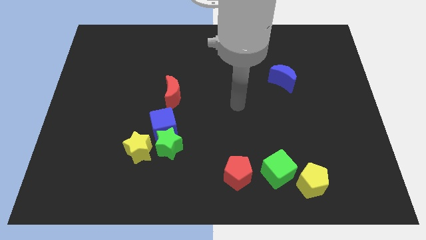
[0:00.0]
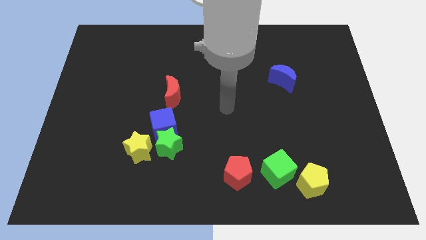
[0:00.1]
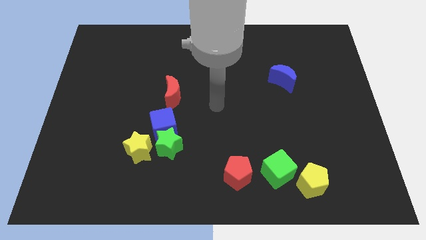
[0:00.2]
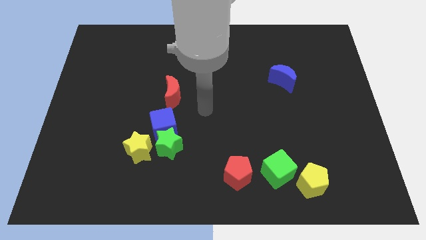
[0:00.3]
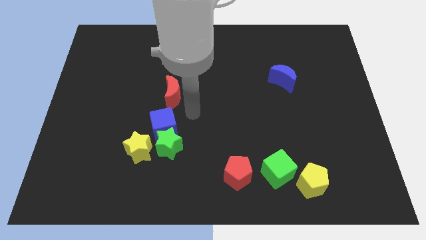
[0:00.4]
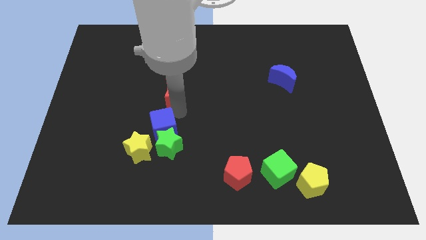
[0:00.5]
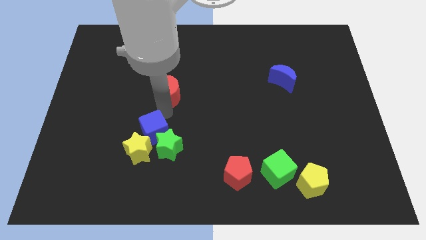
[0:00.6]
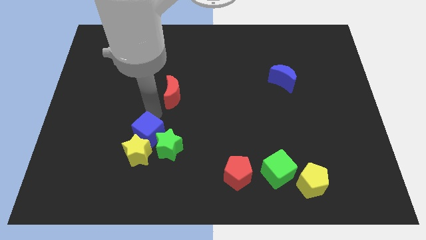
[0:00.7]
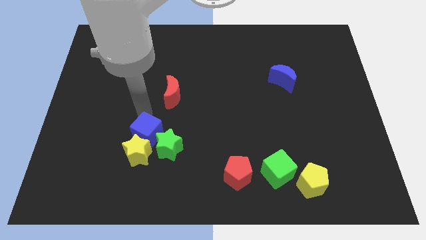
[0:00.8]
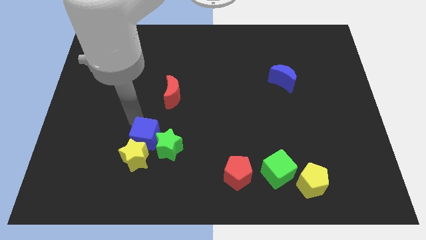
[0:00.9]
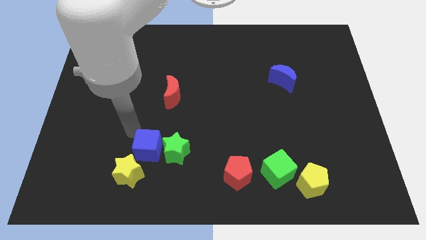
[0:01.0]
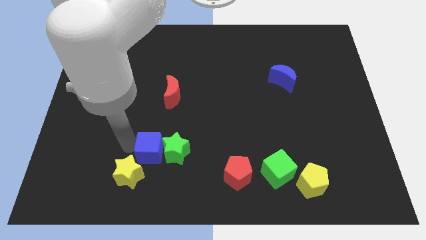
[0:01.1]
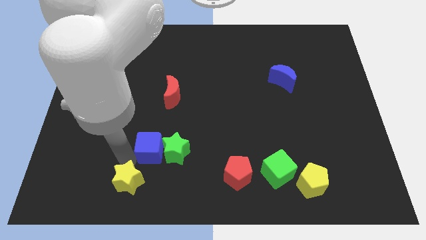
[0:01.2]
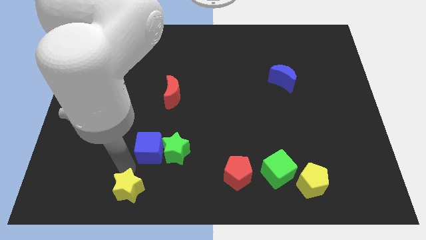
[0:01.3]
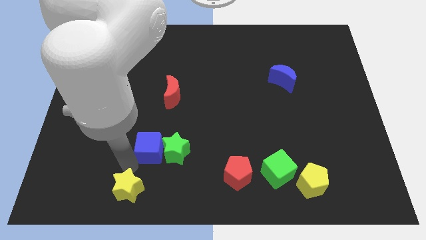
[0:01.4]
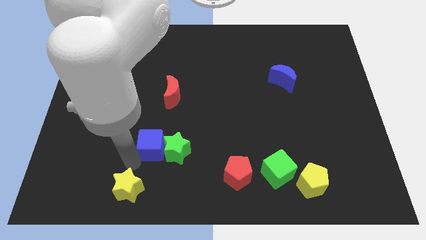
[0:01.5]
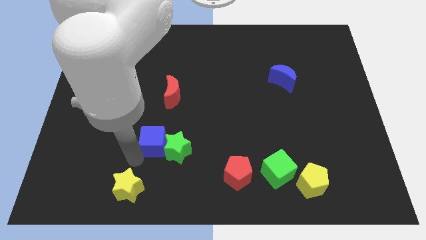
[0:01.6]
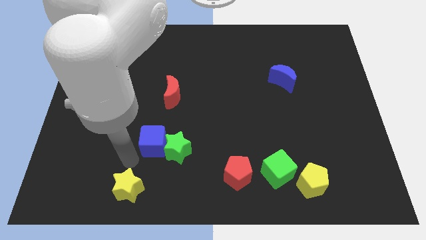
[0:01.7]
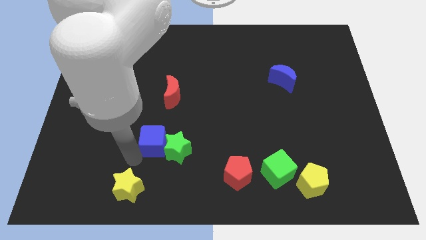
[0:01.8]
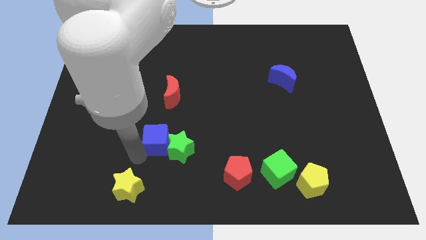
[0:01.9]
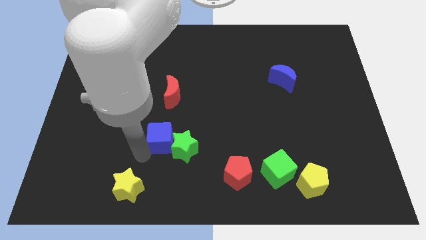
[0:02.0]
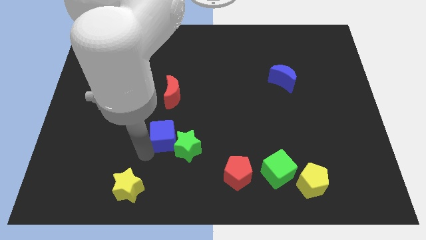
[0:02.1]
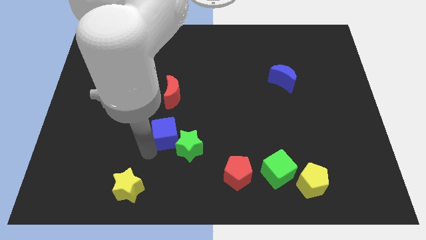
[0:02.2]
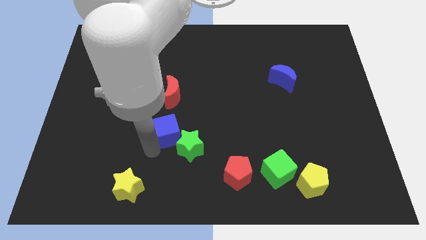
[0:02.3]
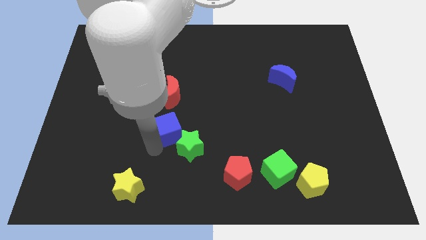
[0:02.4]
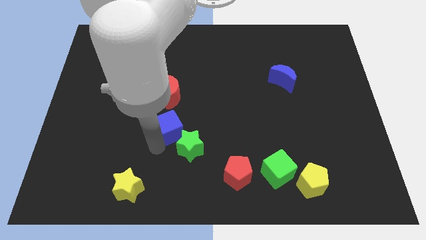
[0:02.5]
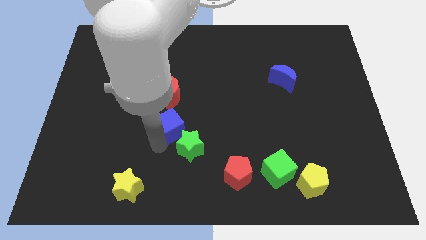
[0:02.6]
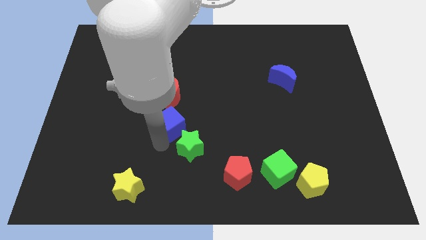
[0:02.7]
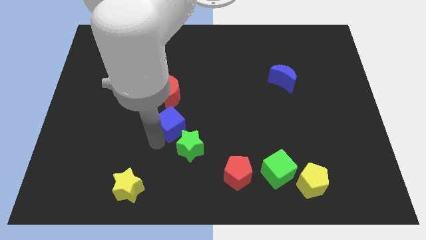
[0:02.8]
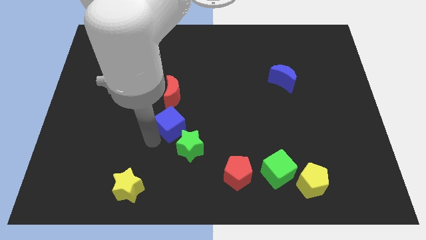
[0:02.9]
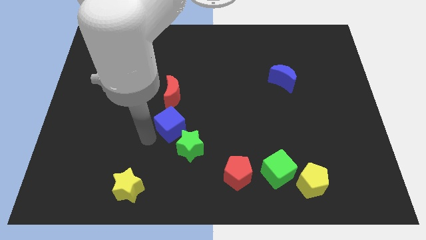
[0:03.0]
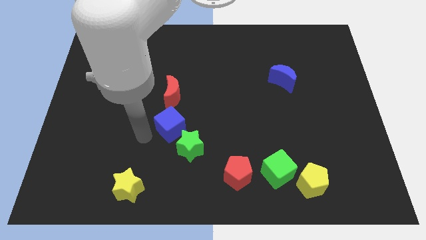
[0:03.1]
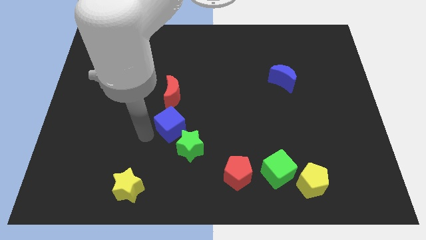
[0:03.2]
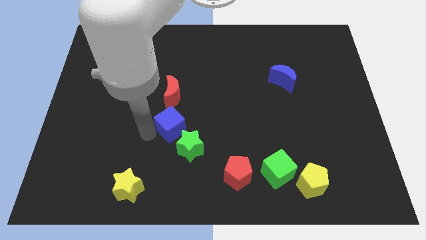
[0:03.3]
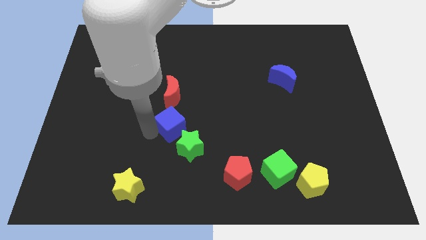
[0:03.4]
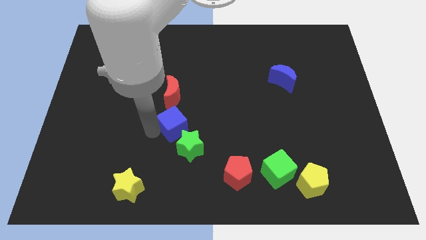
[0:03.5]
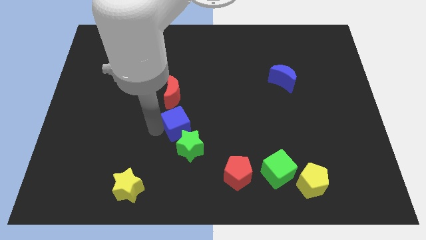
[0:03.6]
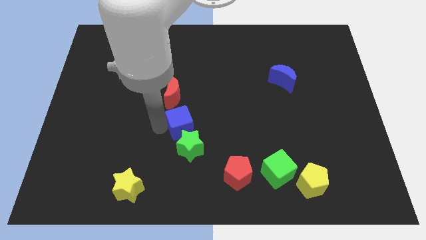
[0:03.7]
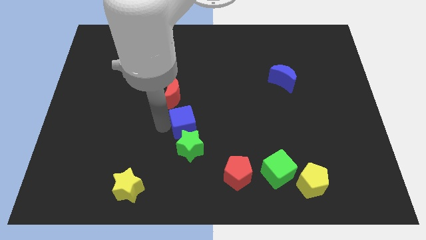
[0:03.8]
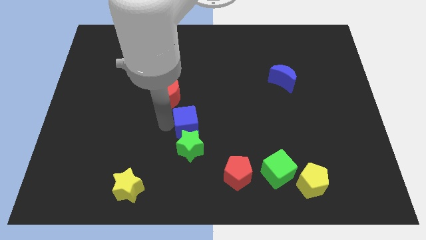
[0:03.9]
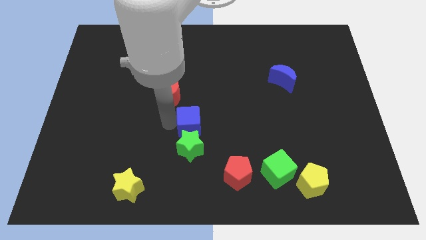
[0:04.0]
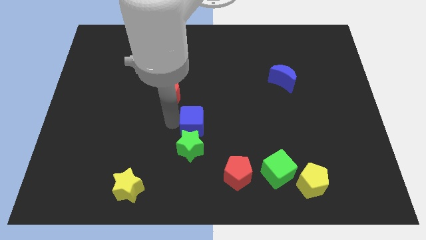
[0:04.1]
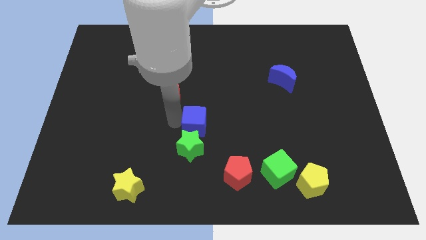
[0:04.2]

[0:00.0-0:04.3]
slightly slide the blue cube to the right

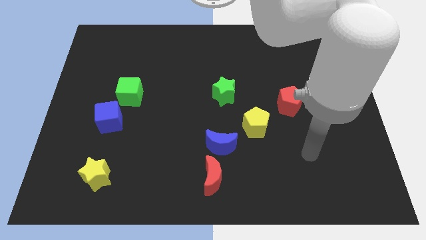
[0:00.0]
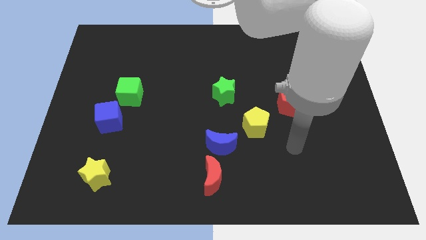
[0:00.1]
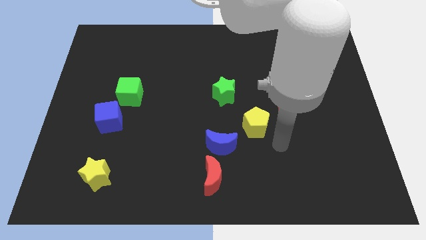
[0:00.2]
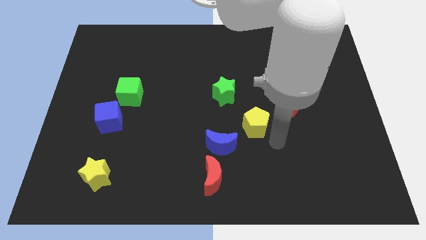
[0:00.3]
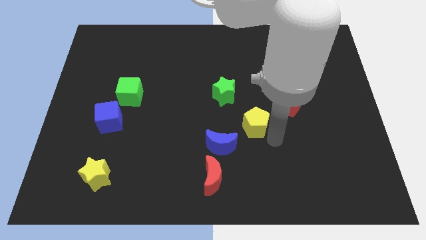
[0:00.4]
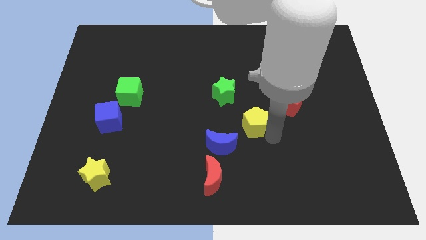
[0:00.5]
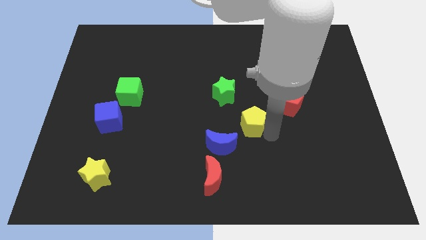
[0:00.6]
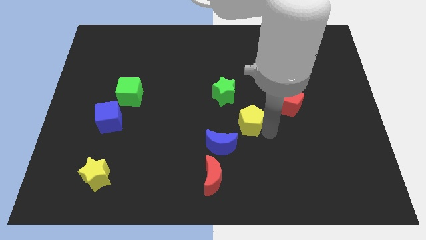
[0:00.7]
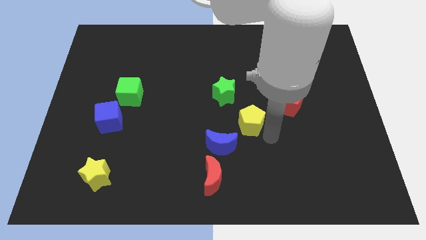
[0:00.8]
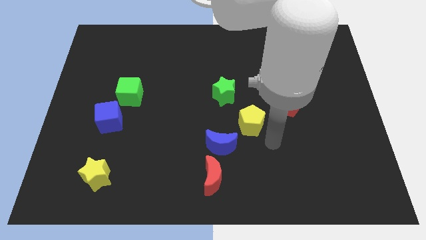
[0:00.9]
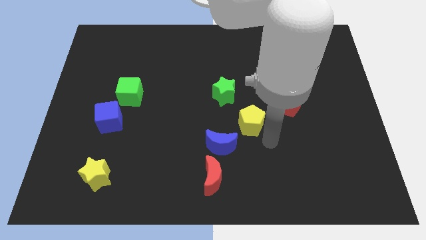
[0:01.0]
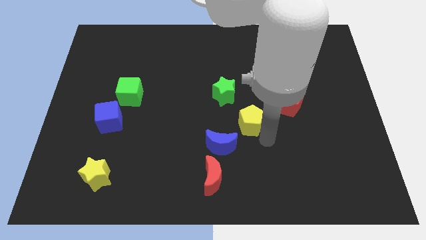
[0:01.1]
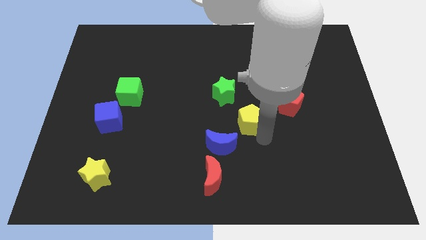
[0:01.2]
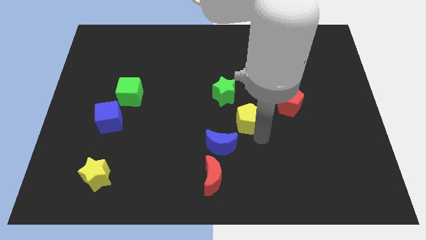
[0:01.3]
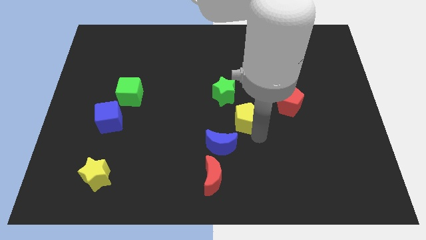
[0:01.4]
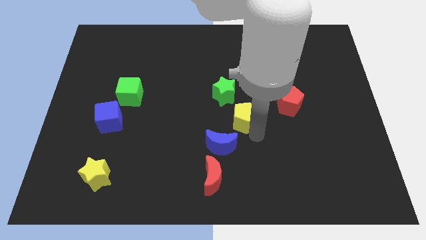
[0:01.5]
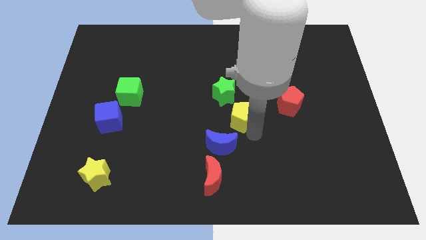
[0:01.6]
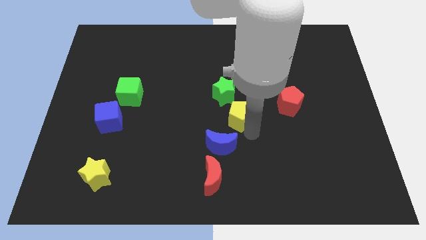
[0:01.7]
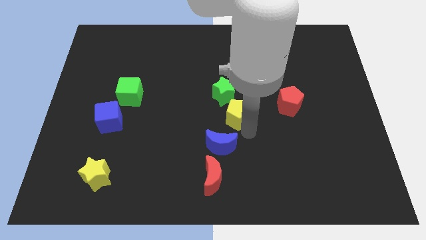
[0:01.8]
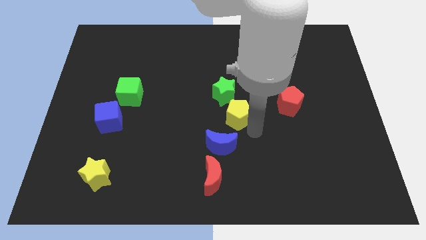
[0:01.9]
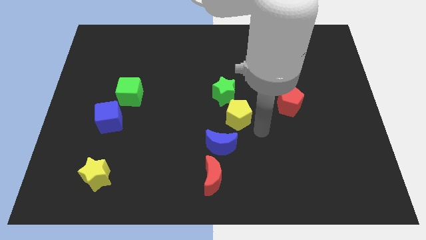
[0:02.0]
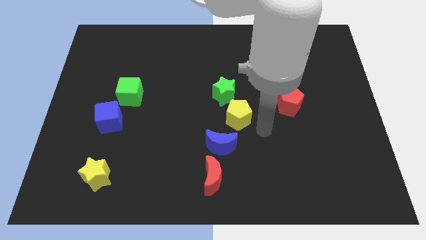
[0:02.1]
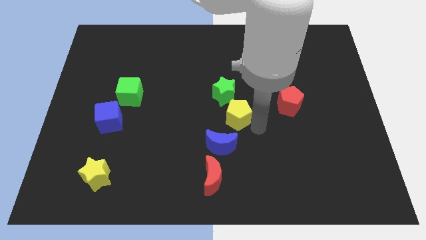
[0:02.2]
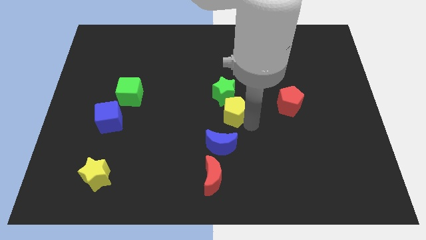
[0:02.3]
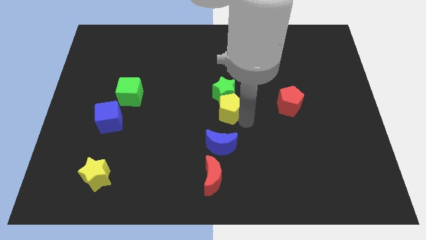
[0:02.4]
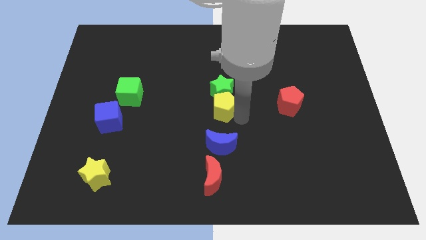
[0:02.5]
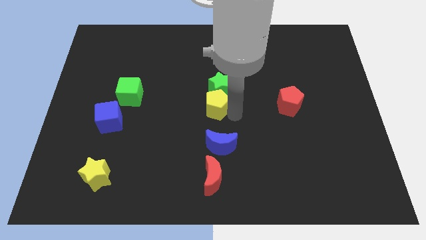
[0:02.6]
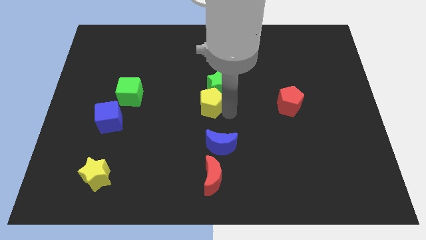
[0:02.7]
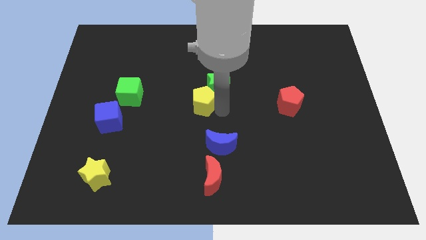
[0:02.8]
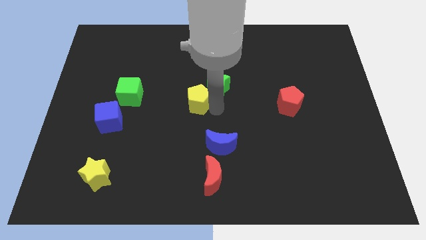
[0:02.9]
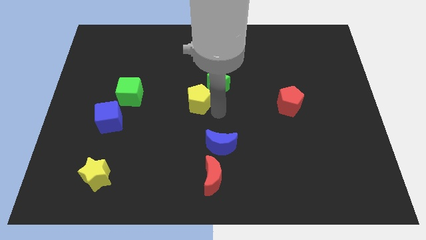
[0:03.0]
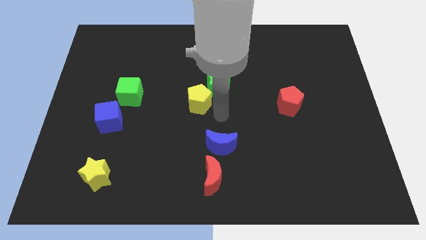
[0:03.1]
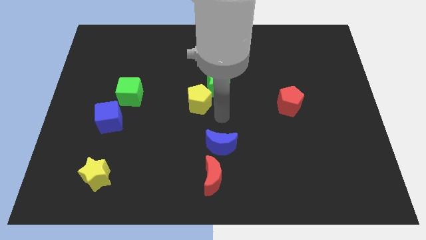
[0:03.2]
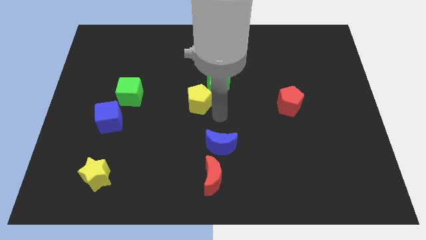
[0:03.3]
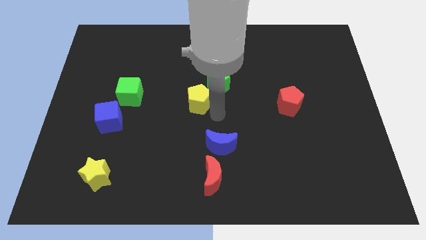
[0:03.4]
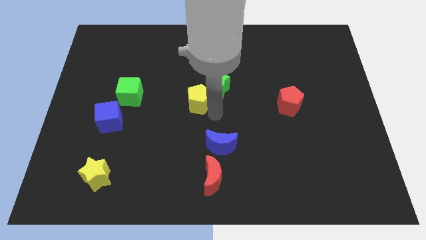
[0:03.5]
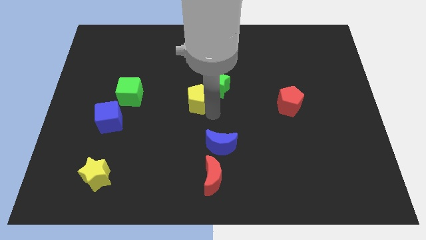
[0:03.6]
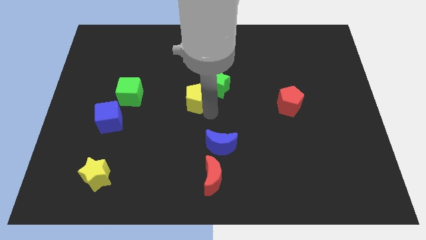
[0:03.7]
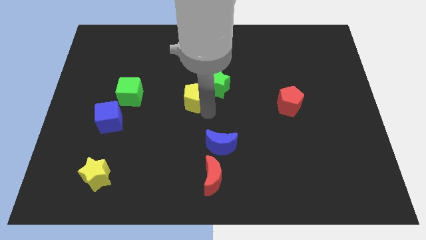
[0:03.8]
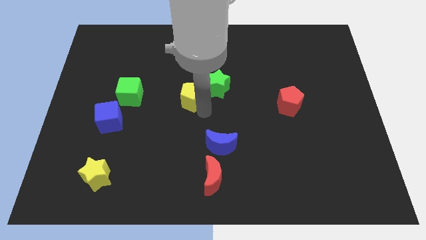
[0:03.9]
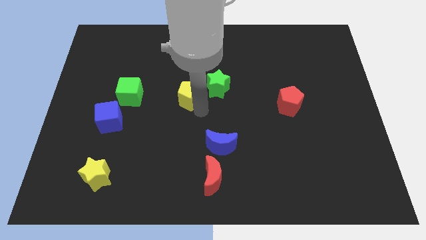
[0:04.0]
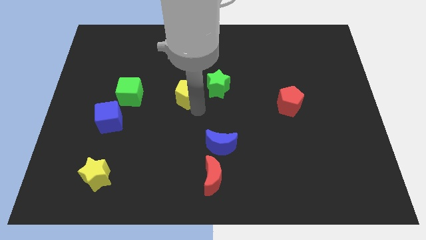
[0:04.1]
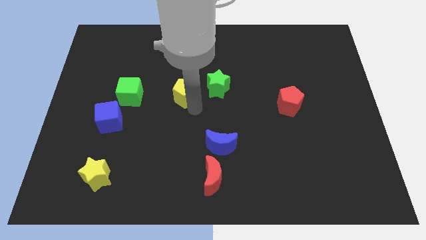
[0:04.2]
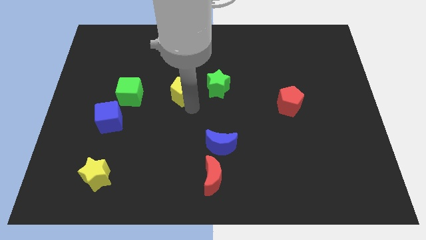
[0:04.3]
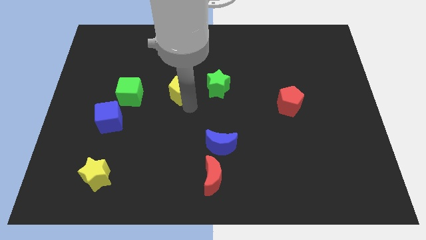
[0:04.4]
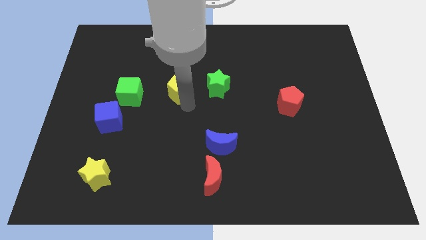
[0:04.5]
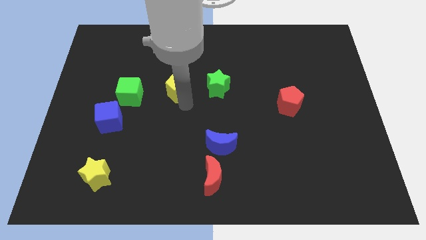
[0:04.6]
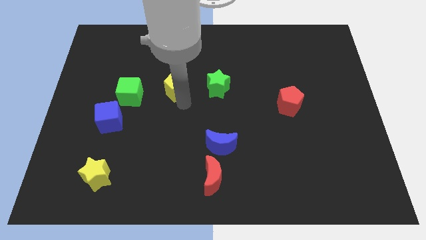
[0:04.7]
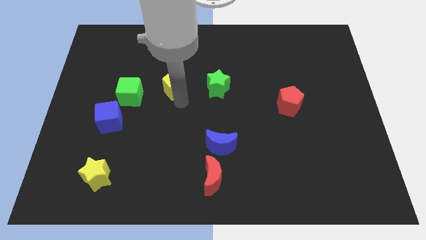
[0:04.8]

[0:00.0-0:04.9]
slide the yellow pentagon upwards and to the left diagonally
